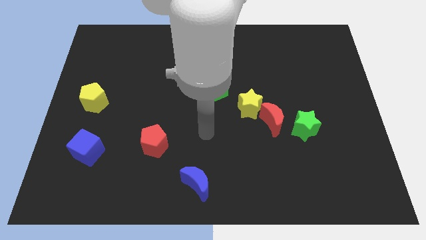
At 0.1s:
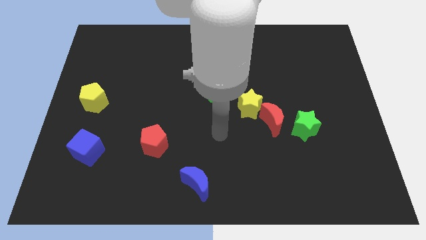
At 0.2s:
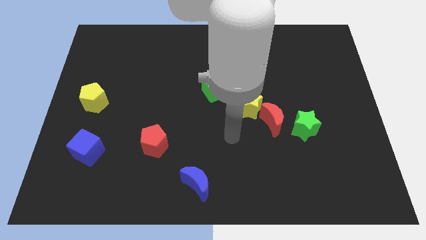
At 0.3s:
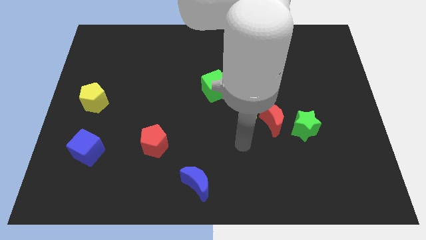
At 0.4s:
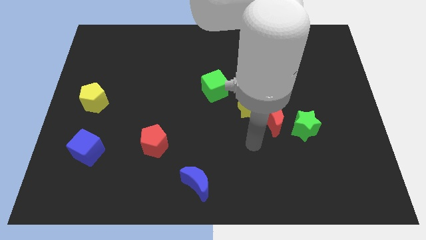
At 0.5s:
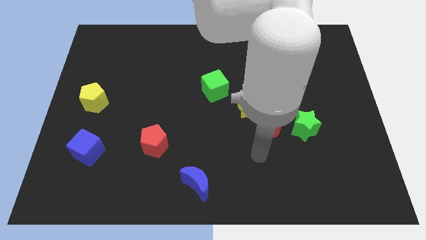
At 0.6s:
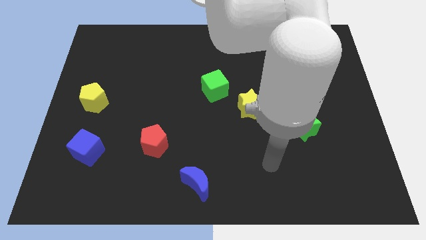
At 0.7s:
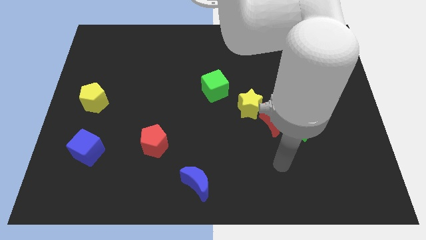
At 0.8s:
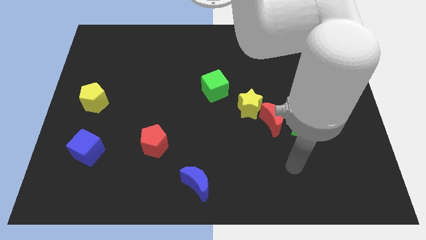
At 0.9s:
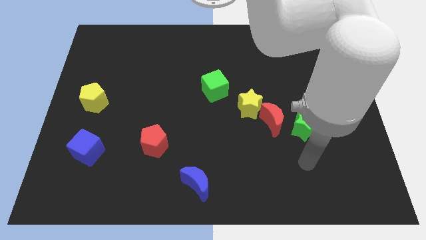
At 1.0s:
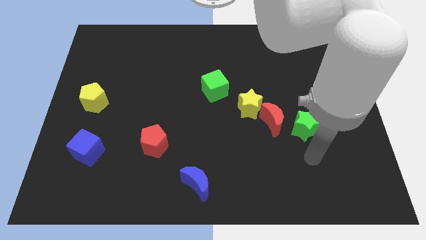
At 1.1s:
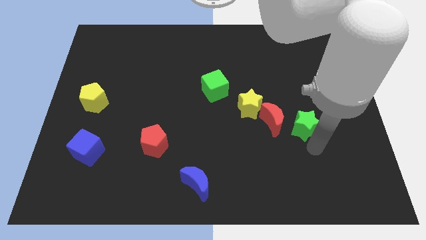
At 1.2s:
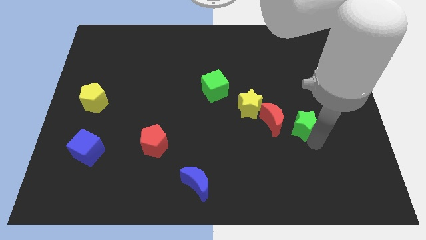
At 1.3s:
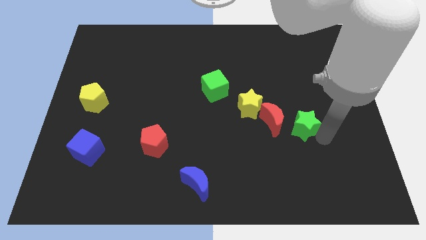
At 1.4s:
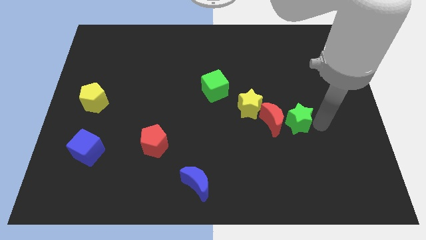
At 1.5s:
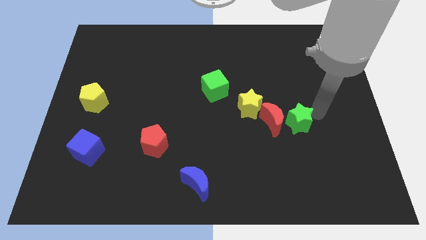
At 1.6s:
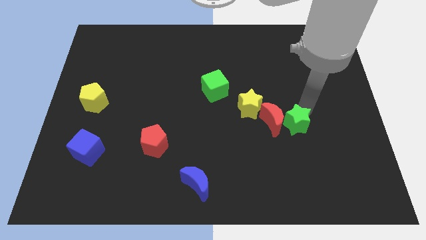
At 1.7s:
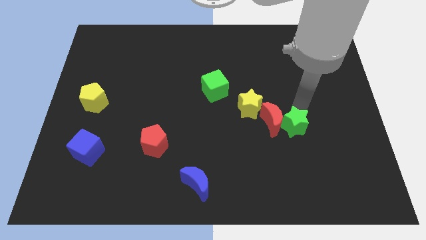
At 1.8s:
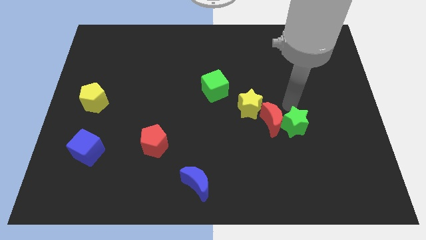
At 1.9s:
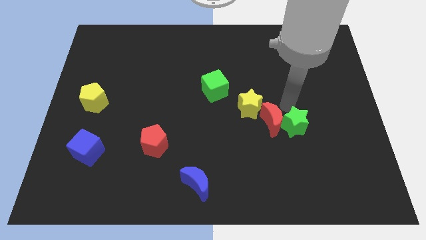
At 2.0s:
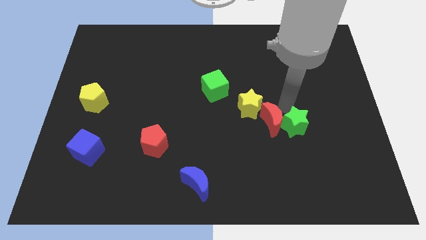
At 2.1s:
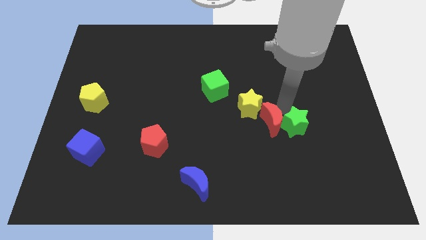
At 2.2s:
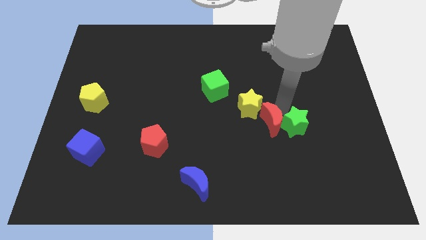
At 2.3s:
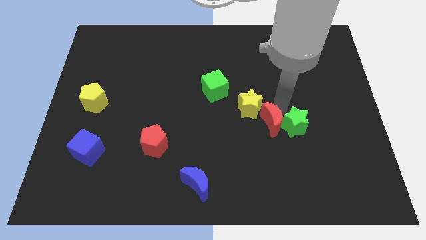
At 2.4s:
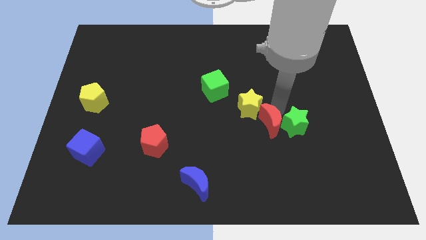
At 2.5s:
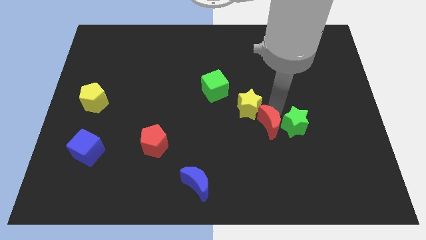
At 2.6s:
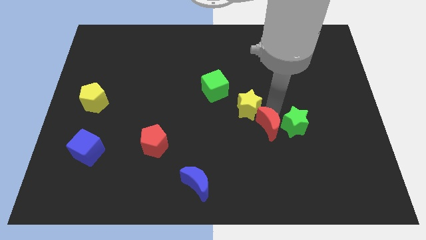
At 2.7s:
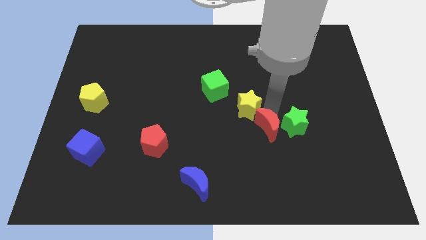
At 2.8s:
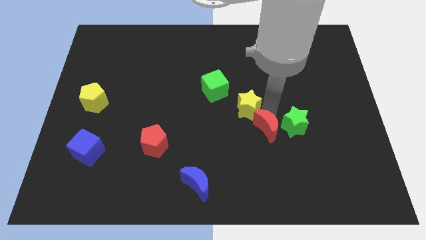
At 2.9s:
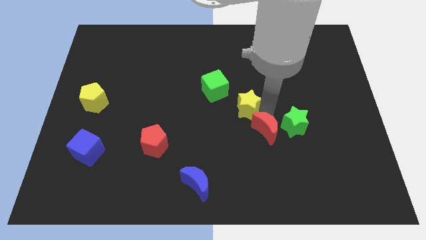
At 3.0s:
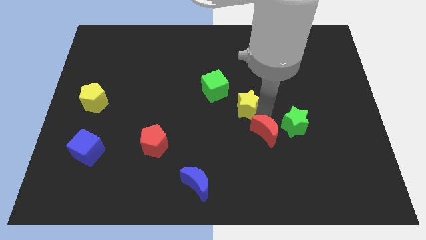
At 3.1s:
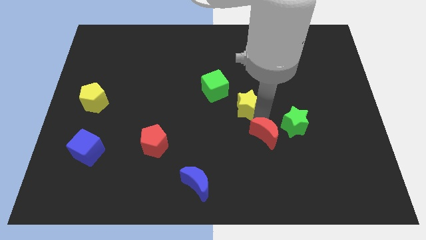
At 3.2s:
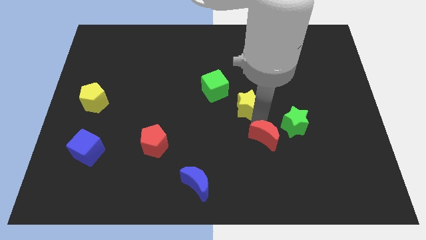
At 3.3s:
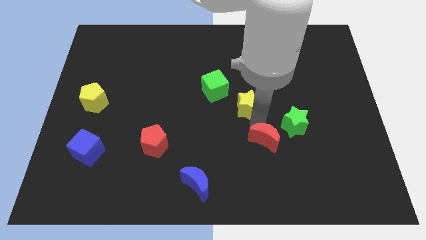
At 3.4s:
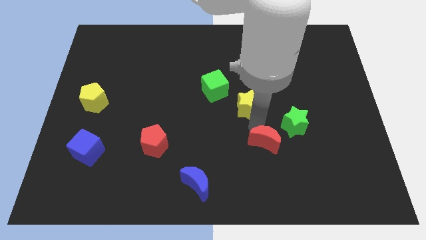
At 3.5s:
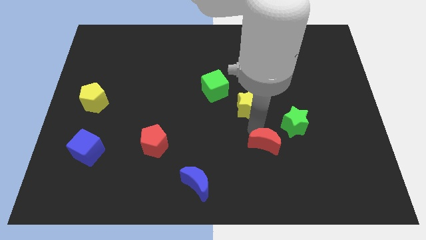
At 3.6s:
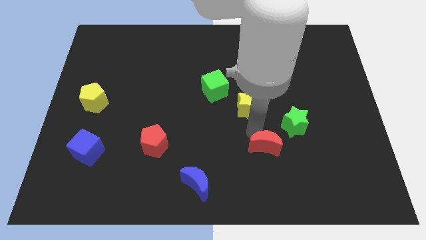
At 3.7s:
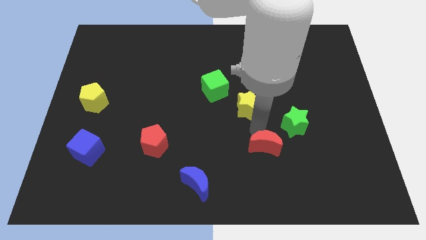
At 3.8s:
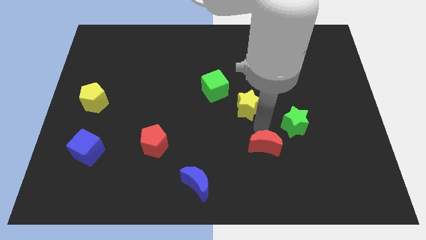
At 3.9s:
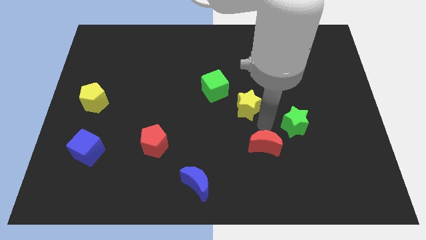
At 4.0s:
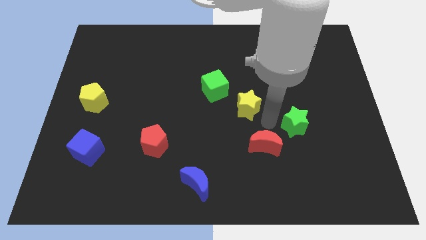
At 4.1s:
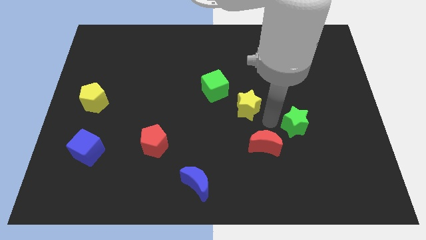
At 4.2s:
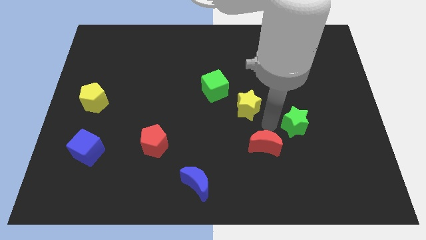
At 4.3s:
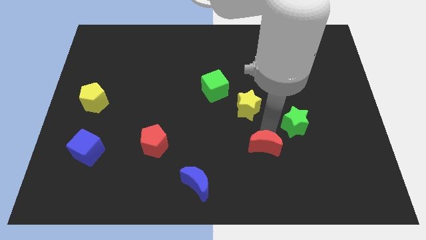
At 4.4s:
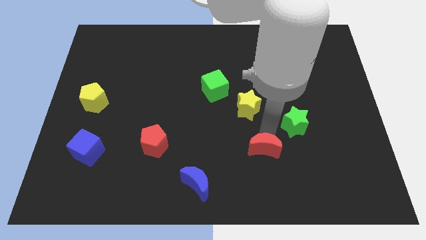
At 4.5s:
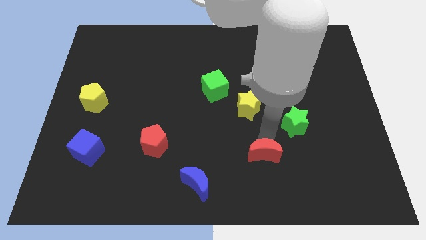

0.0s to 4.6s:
move the red moon away from the yellow star and green star

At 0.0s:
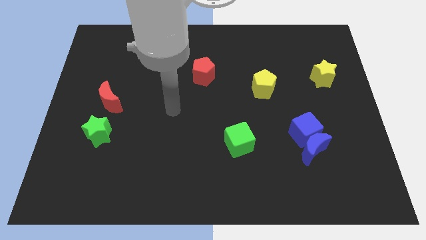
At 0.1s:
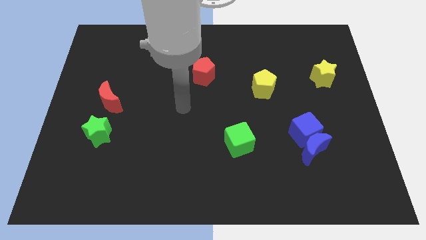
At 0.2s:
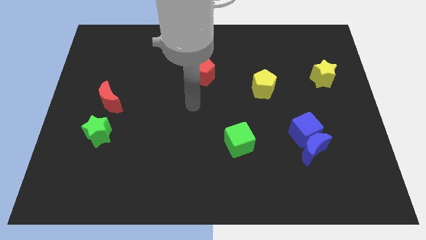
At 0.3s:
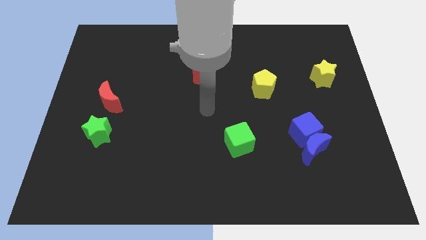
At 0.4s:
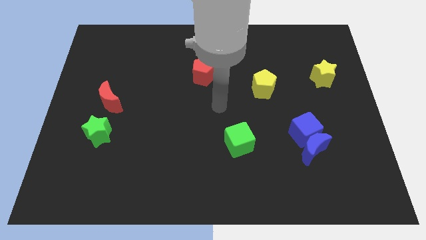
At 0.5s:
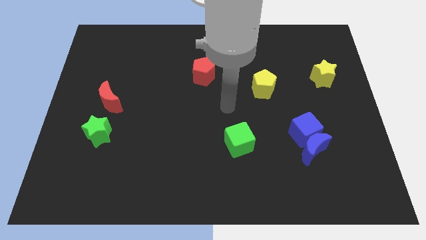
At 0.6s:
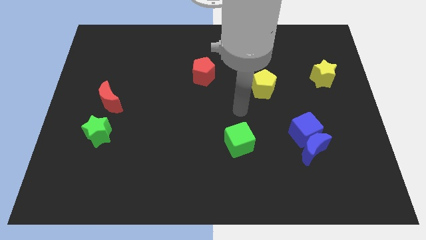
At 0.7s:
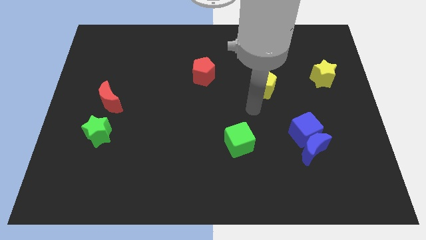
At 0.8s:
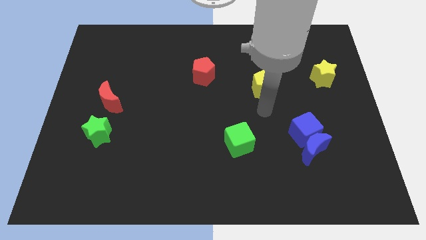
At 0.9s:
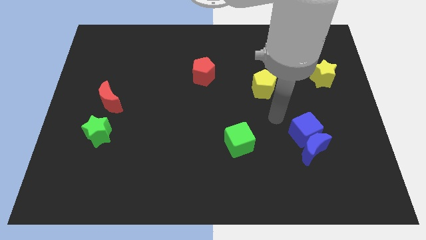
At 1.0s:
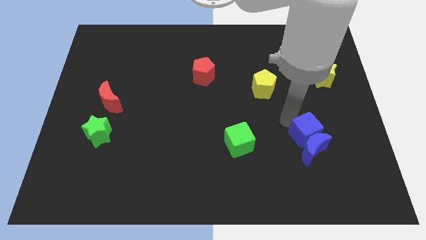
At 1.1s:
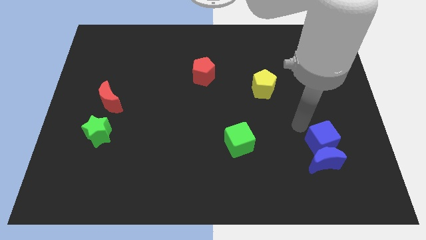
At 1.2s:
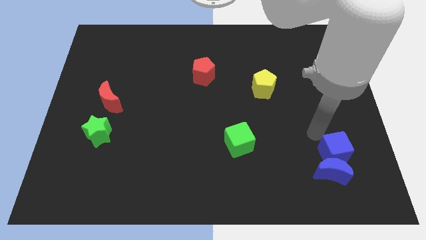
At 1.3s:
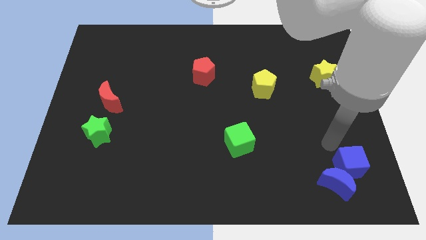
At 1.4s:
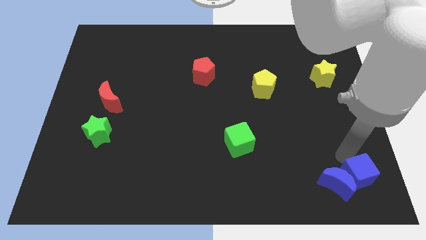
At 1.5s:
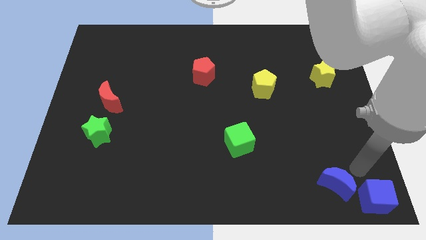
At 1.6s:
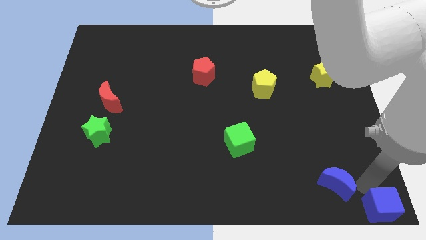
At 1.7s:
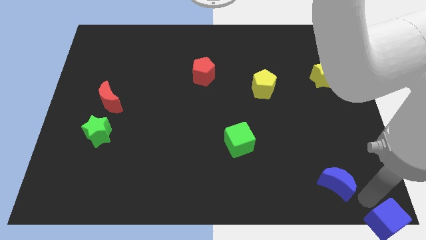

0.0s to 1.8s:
move the blue moon away from the blue cube

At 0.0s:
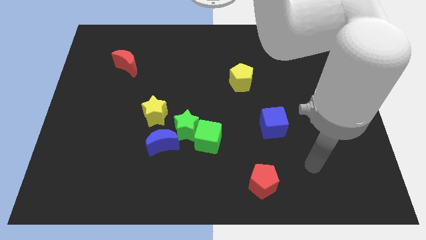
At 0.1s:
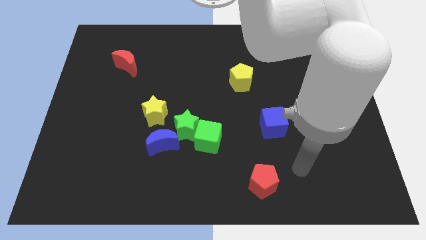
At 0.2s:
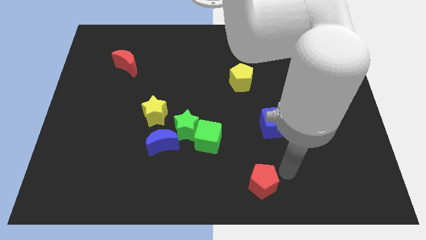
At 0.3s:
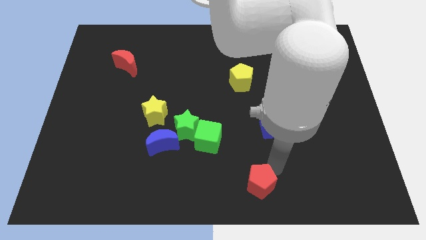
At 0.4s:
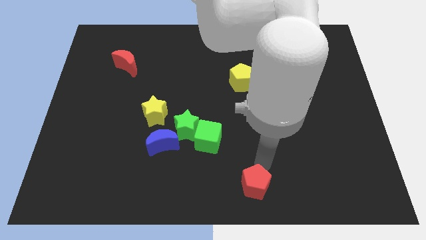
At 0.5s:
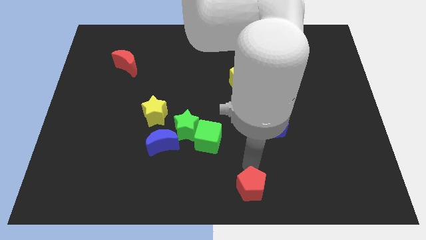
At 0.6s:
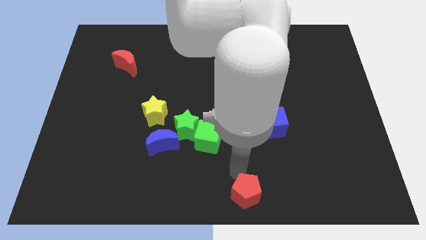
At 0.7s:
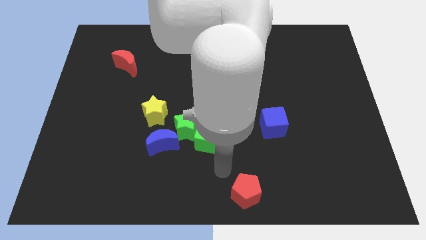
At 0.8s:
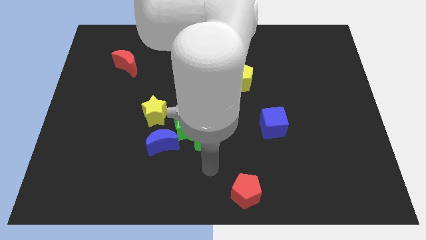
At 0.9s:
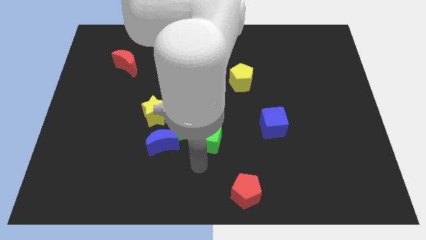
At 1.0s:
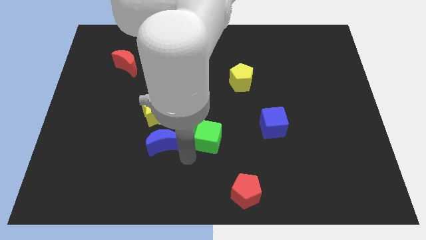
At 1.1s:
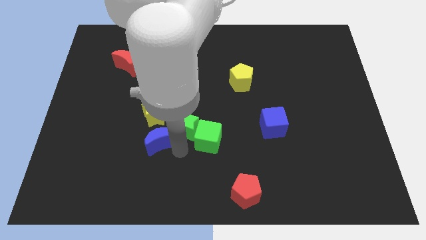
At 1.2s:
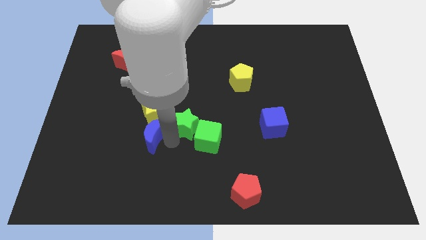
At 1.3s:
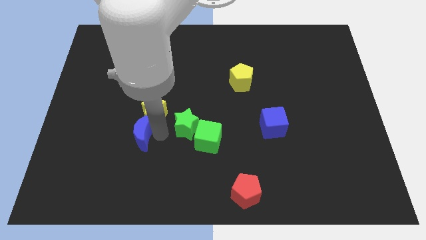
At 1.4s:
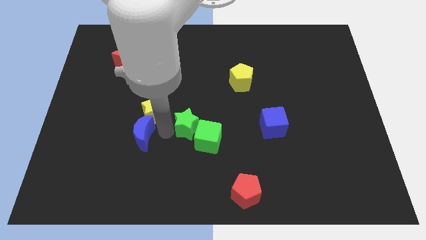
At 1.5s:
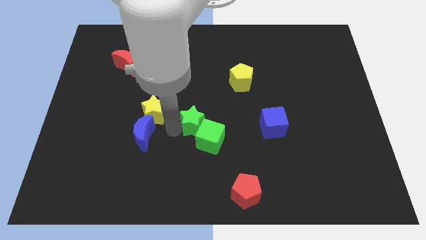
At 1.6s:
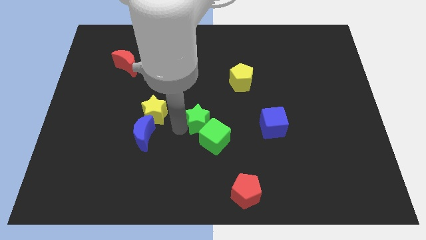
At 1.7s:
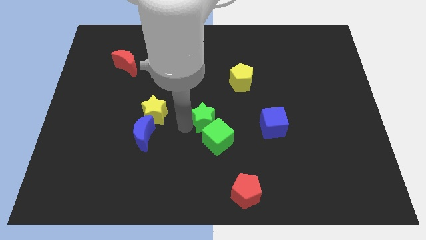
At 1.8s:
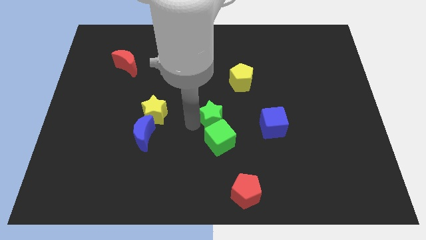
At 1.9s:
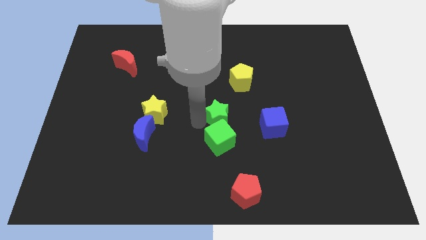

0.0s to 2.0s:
separate the green star from the green cube, blue moon, and yellow star

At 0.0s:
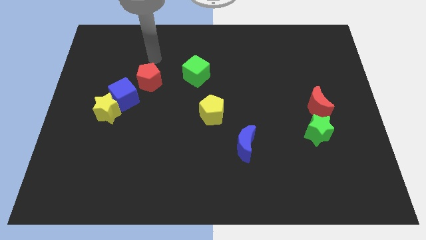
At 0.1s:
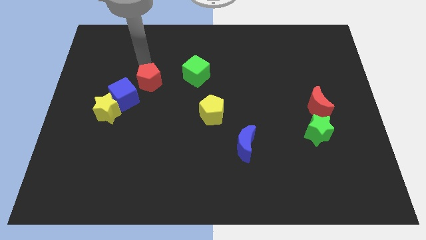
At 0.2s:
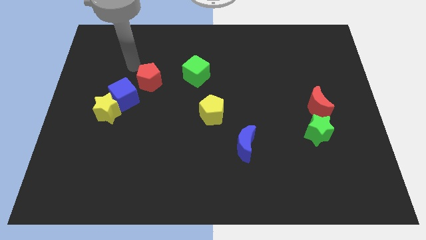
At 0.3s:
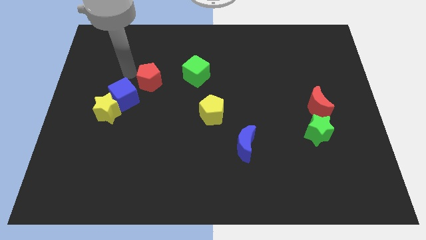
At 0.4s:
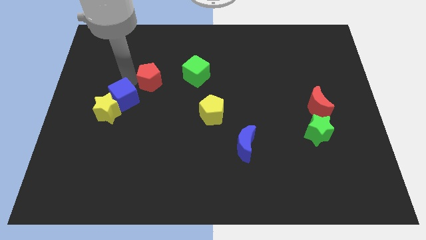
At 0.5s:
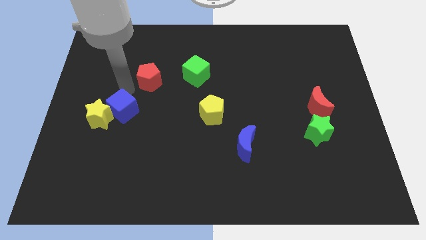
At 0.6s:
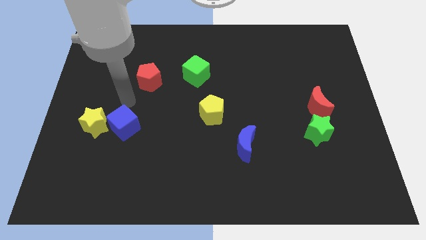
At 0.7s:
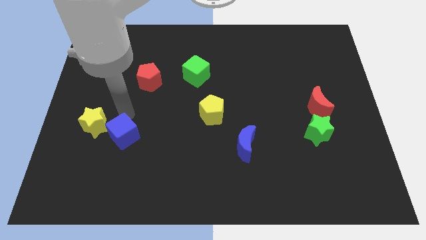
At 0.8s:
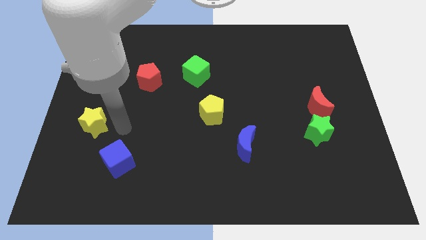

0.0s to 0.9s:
separate the yellow star from the blue cube

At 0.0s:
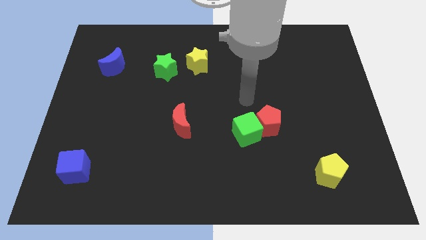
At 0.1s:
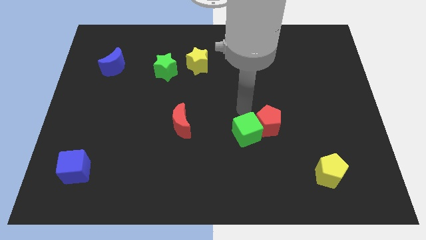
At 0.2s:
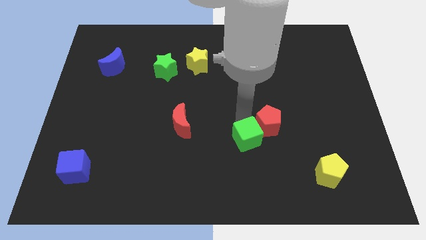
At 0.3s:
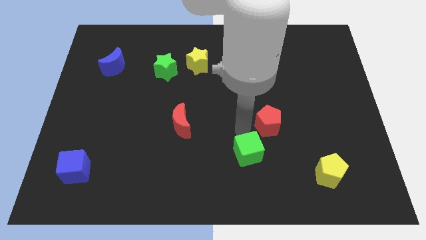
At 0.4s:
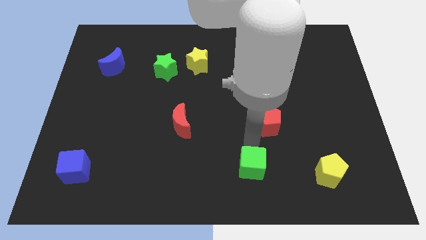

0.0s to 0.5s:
separate the red pentagon from the green cube
